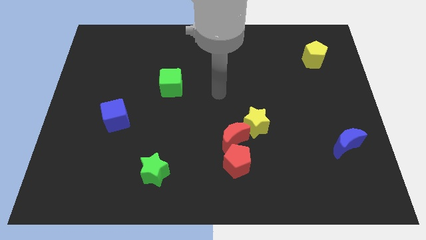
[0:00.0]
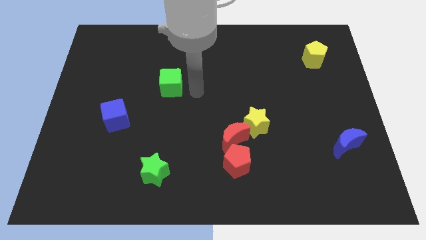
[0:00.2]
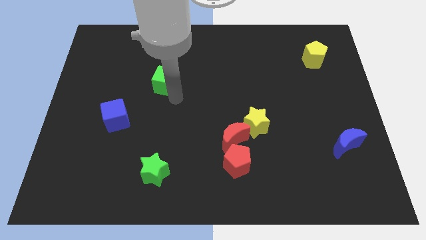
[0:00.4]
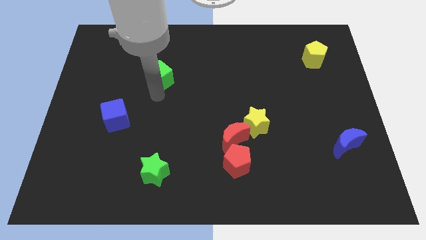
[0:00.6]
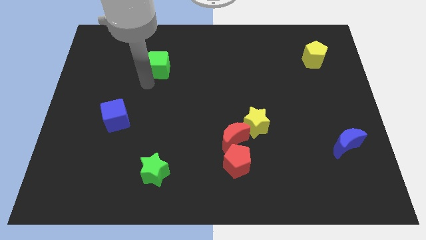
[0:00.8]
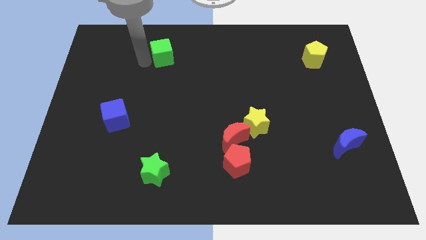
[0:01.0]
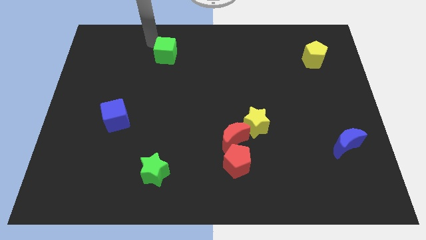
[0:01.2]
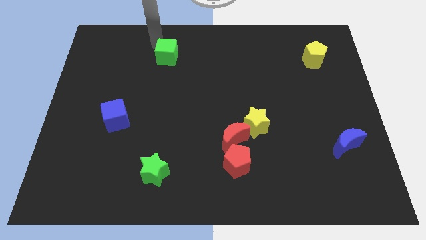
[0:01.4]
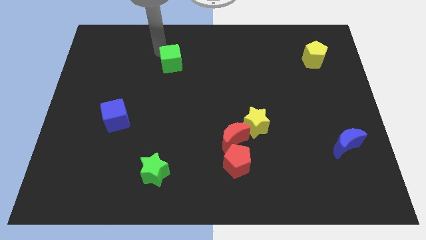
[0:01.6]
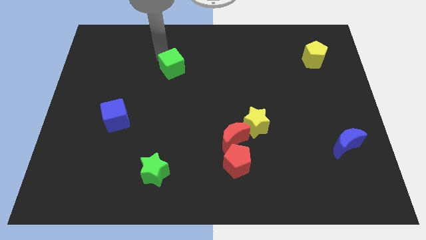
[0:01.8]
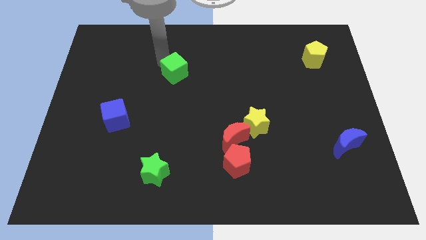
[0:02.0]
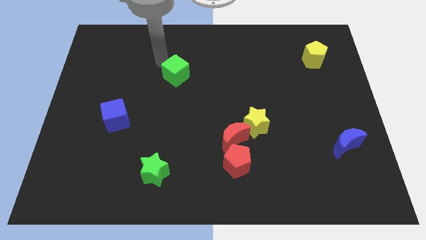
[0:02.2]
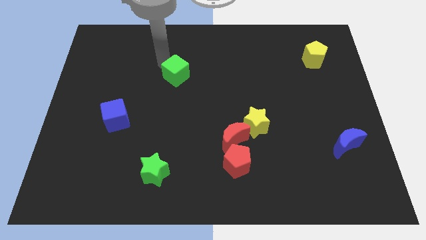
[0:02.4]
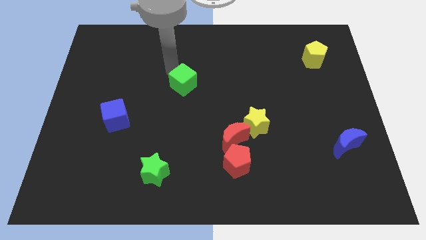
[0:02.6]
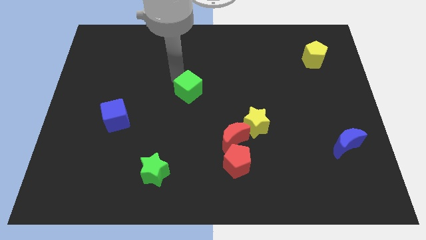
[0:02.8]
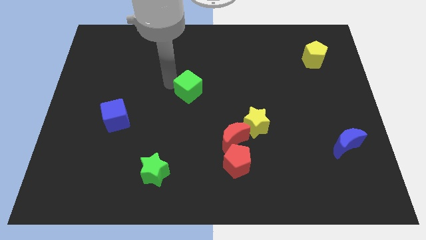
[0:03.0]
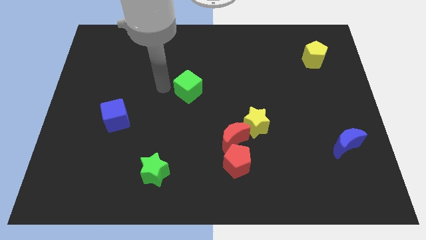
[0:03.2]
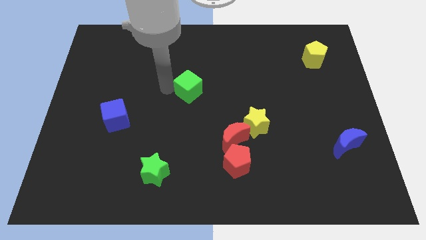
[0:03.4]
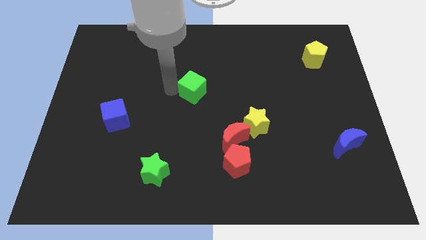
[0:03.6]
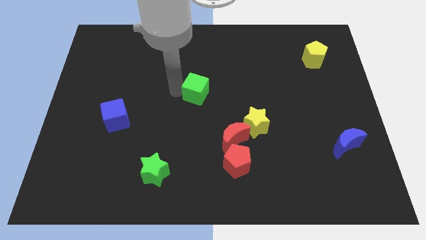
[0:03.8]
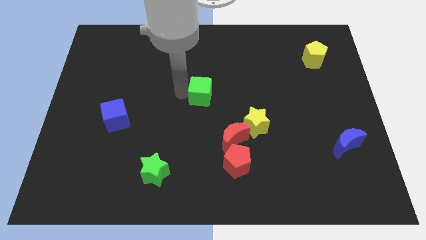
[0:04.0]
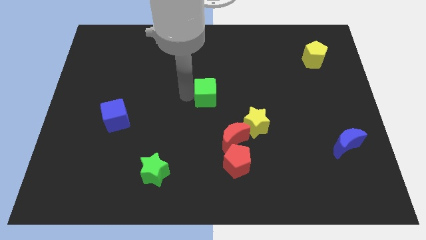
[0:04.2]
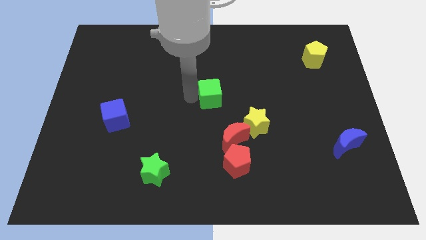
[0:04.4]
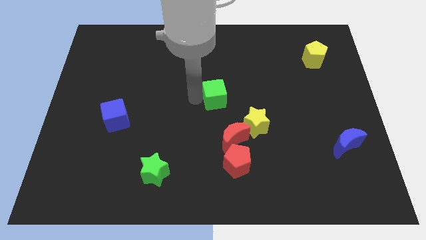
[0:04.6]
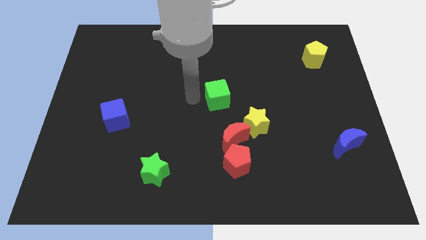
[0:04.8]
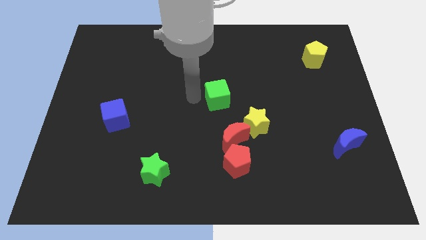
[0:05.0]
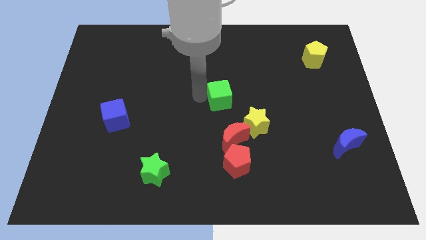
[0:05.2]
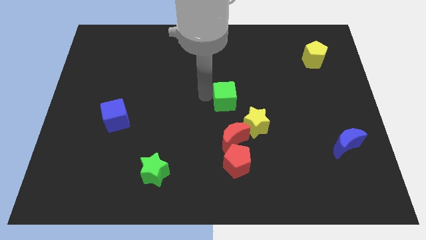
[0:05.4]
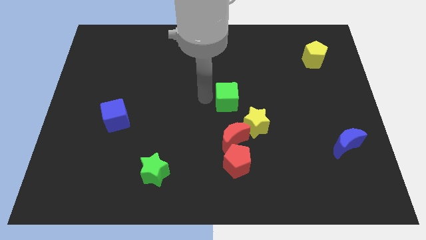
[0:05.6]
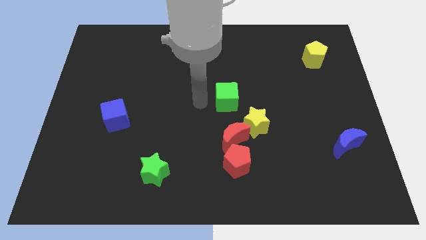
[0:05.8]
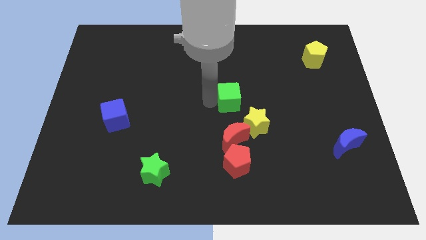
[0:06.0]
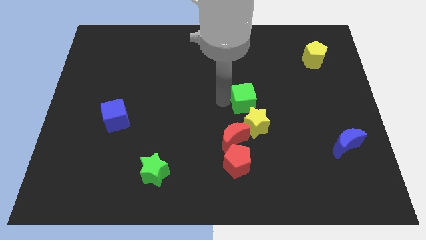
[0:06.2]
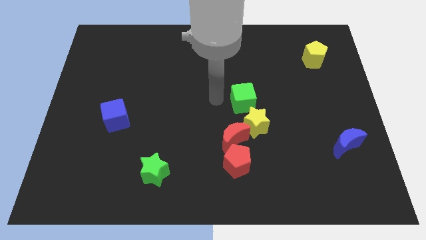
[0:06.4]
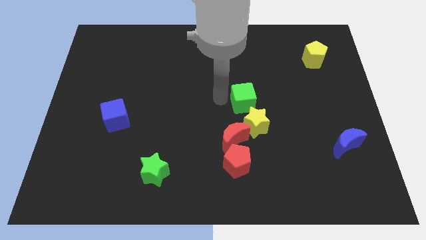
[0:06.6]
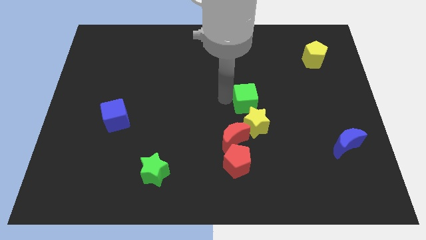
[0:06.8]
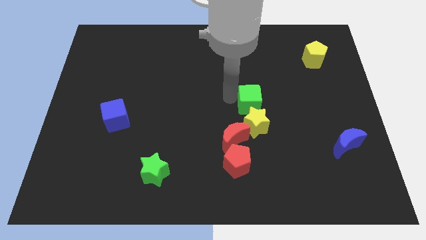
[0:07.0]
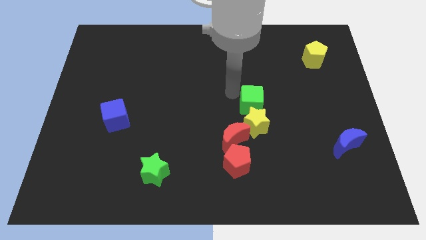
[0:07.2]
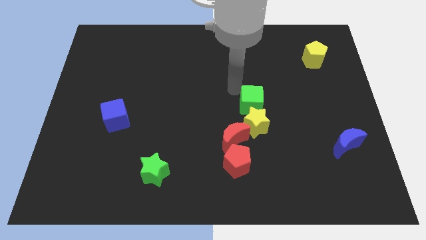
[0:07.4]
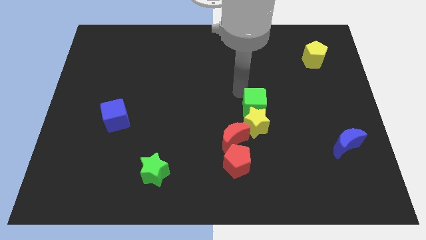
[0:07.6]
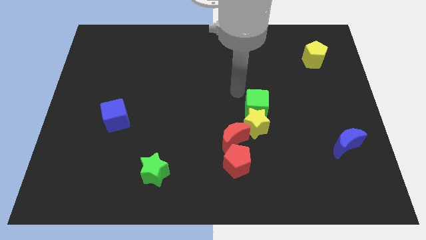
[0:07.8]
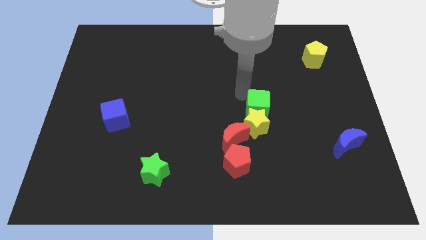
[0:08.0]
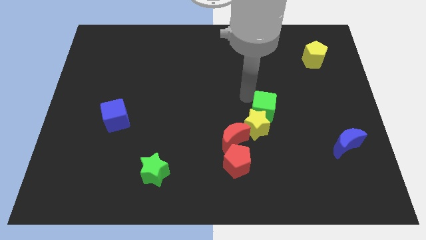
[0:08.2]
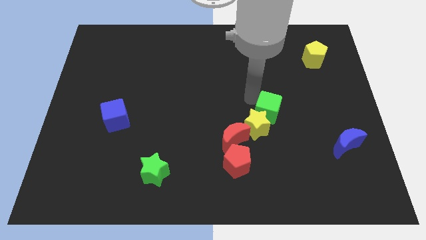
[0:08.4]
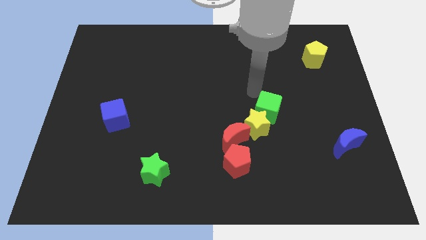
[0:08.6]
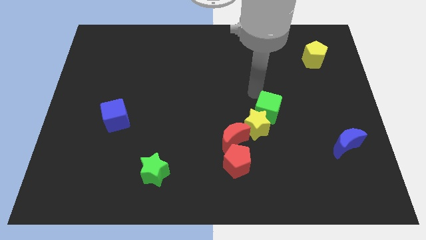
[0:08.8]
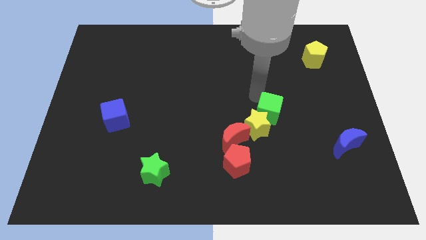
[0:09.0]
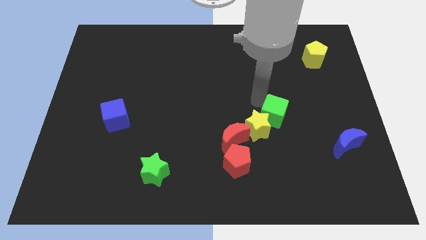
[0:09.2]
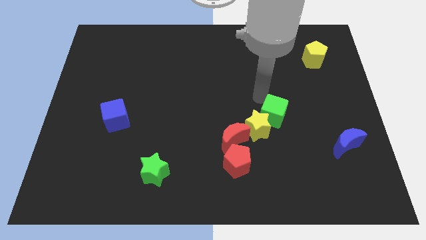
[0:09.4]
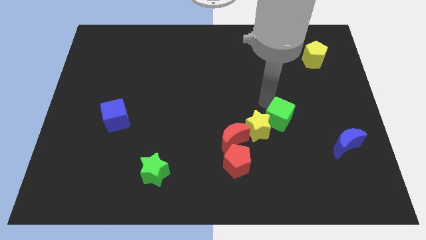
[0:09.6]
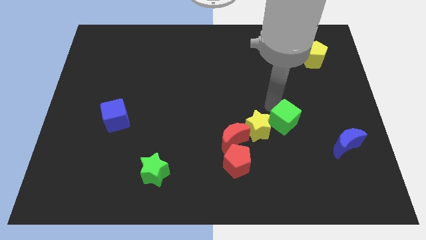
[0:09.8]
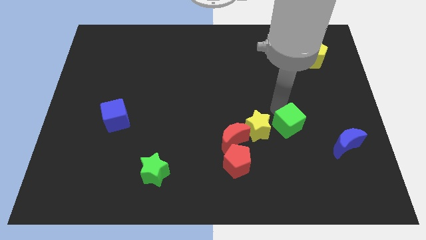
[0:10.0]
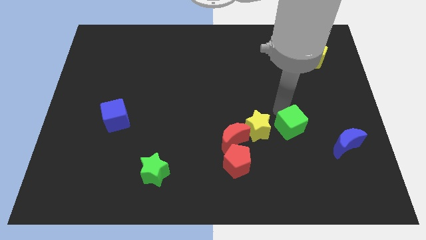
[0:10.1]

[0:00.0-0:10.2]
move the green cube left of the blue moon

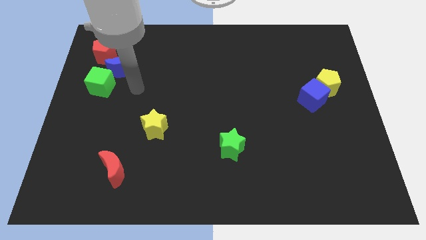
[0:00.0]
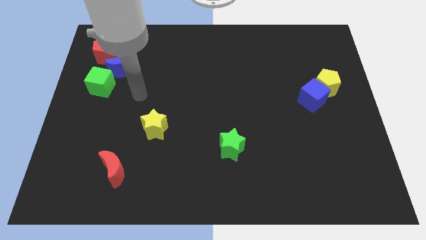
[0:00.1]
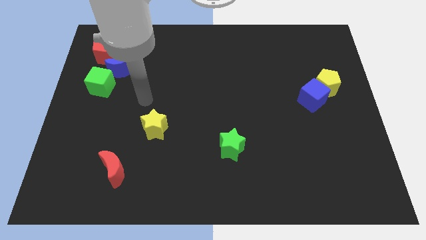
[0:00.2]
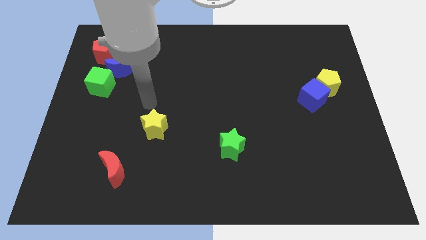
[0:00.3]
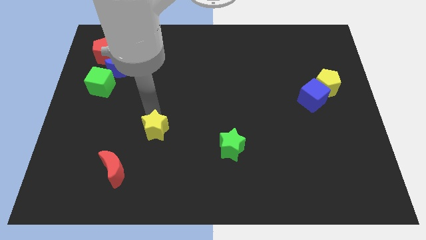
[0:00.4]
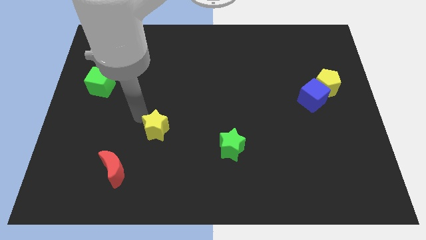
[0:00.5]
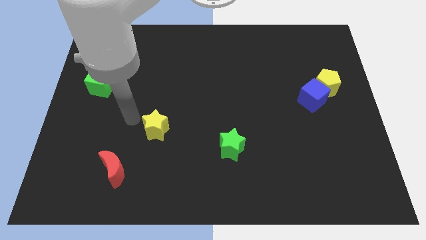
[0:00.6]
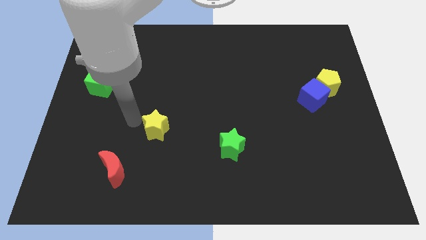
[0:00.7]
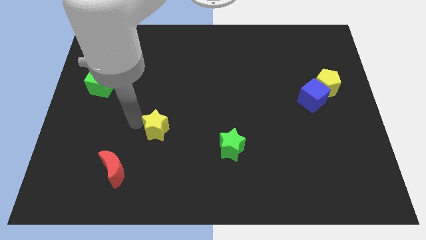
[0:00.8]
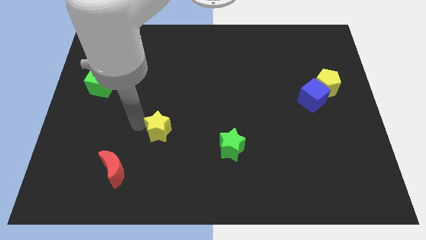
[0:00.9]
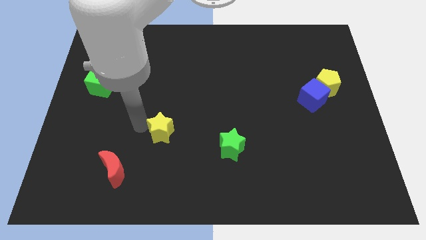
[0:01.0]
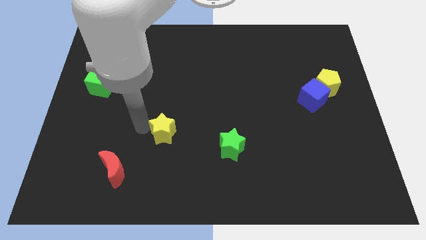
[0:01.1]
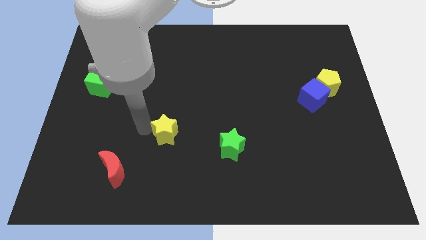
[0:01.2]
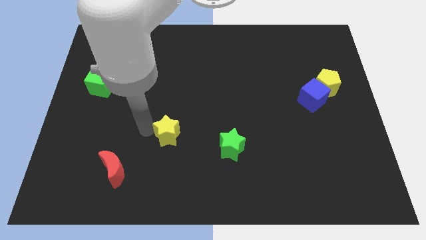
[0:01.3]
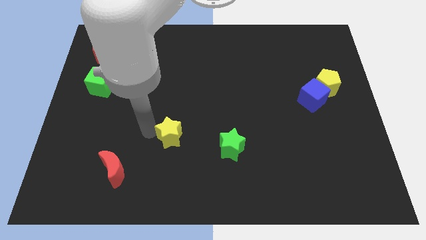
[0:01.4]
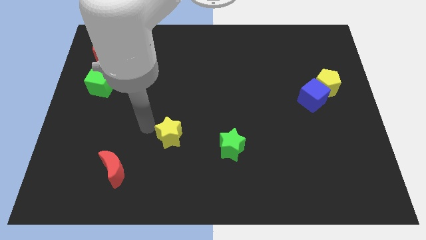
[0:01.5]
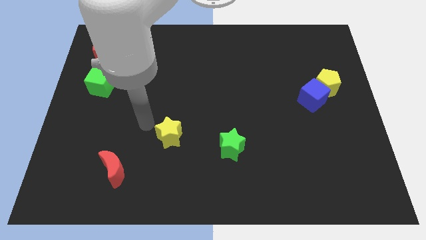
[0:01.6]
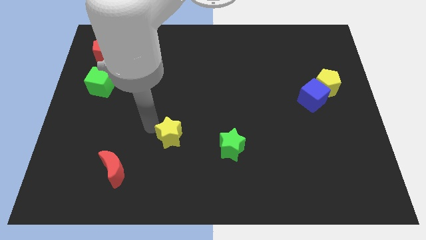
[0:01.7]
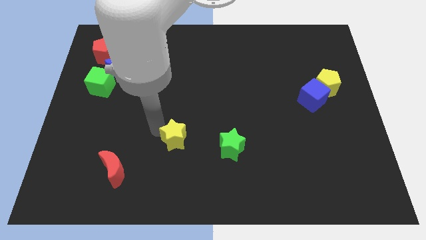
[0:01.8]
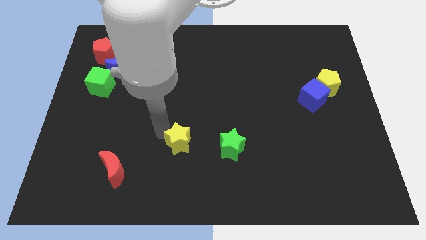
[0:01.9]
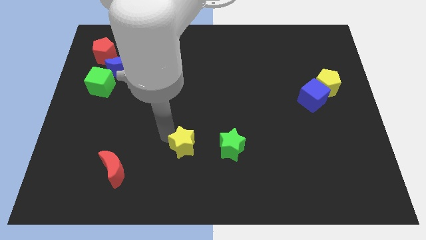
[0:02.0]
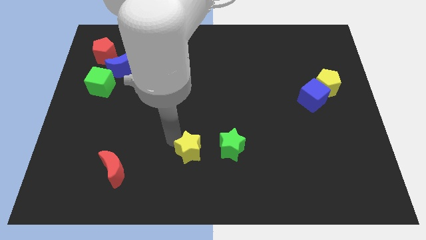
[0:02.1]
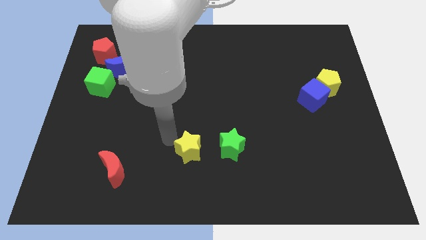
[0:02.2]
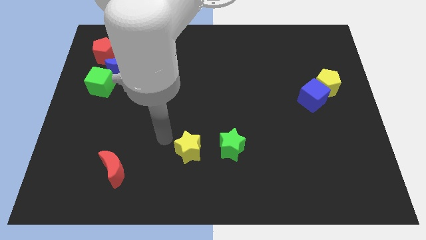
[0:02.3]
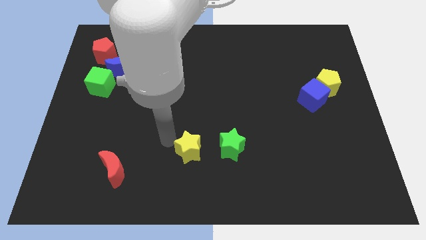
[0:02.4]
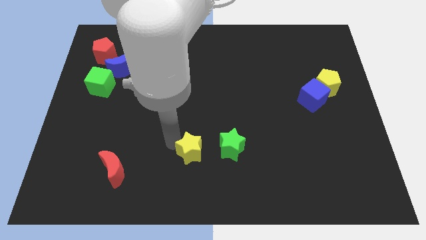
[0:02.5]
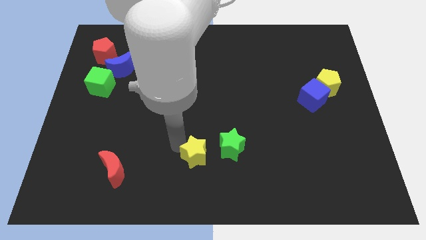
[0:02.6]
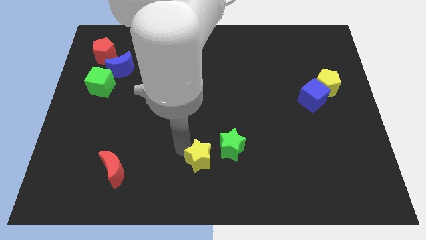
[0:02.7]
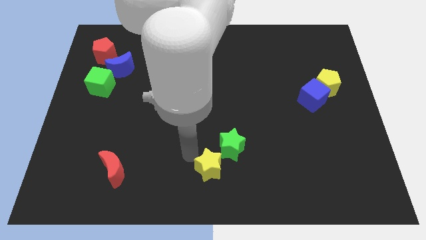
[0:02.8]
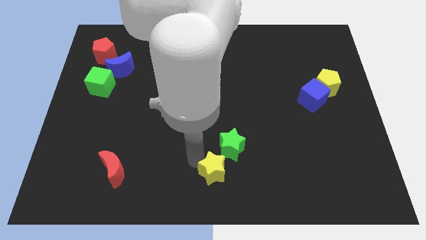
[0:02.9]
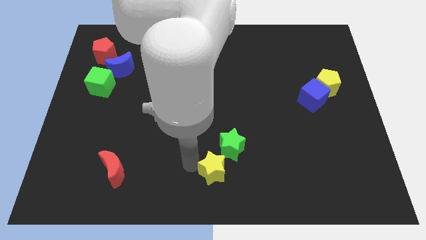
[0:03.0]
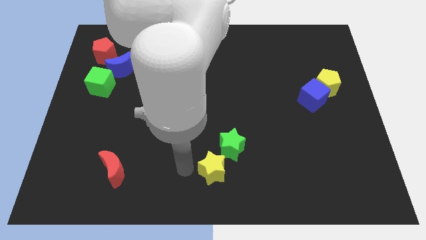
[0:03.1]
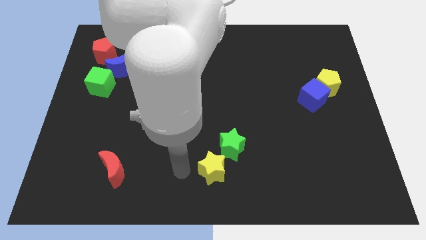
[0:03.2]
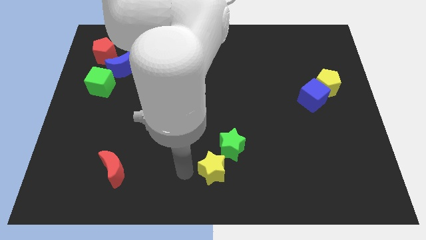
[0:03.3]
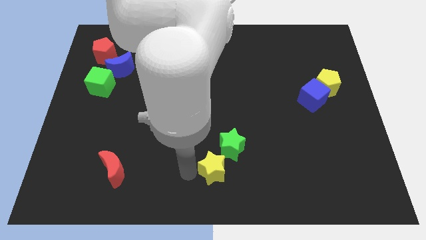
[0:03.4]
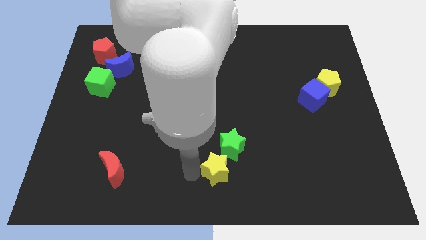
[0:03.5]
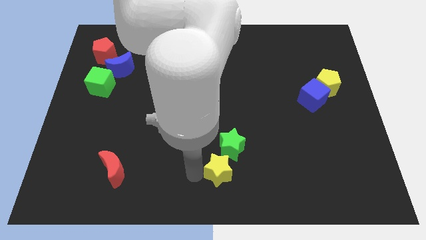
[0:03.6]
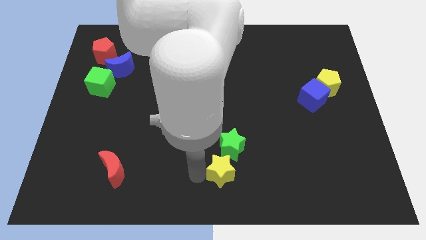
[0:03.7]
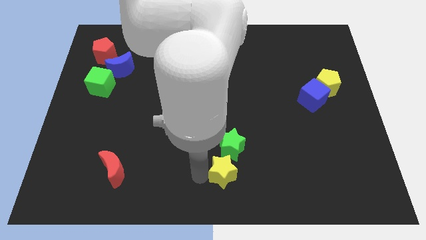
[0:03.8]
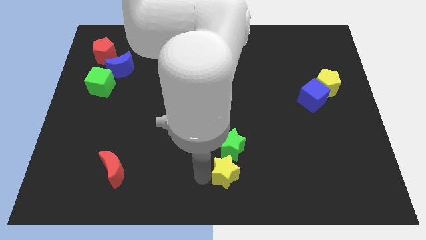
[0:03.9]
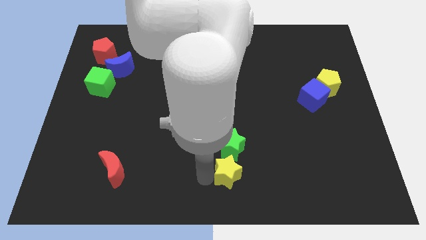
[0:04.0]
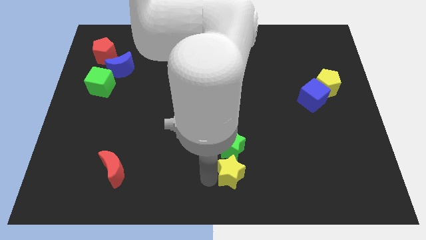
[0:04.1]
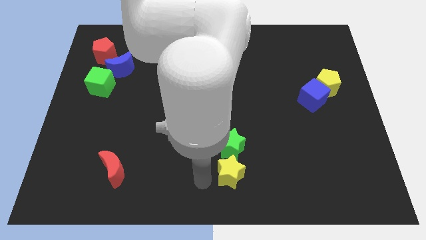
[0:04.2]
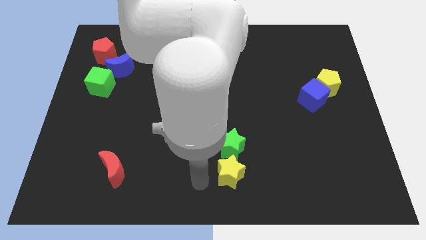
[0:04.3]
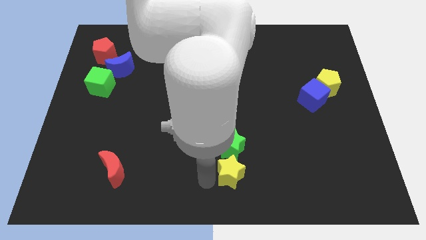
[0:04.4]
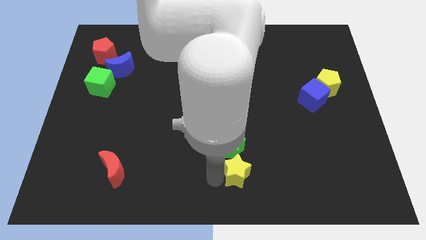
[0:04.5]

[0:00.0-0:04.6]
push the yellow star diagonally down and to the right of the green star
